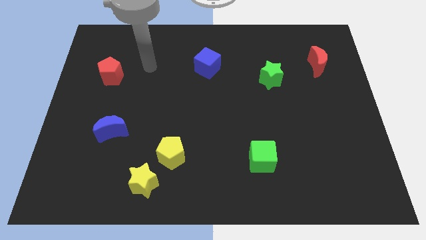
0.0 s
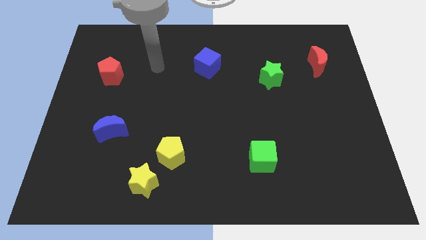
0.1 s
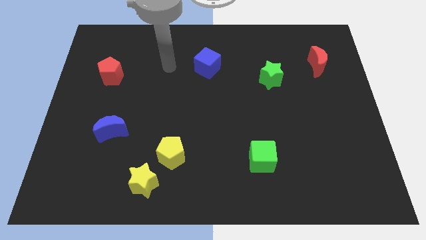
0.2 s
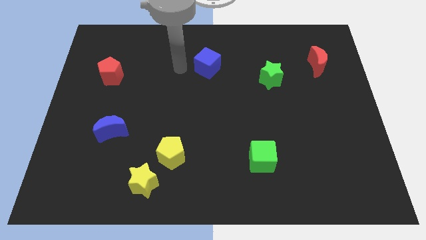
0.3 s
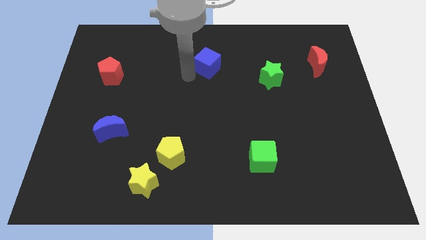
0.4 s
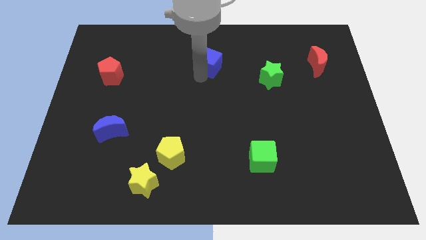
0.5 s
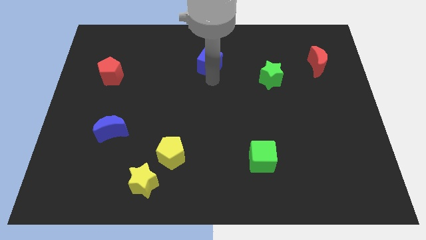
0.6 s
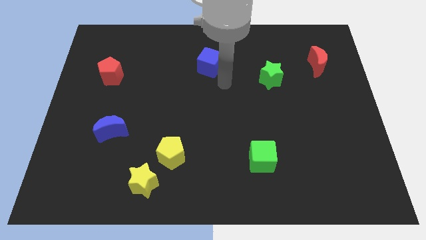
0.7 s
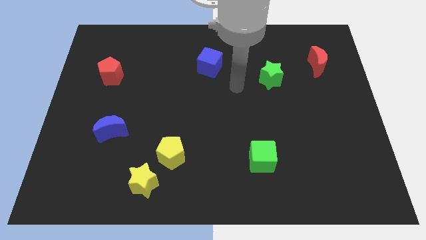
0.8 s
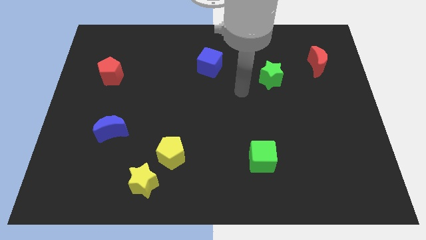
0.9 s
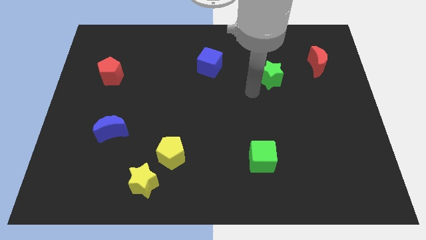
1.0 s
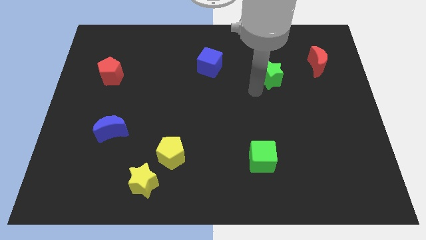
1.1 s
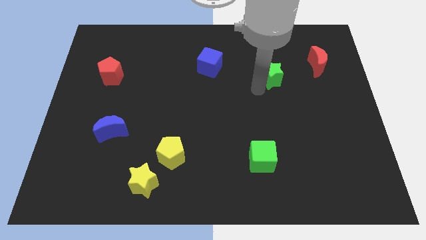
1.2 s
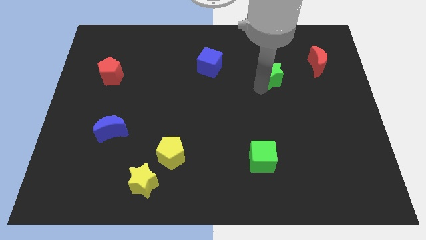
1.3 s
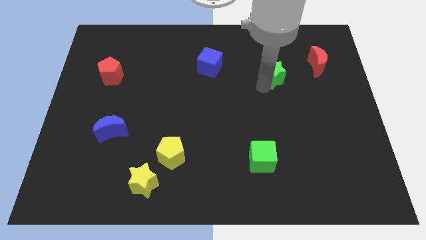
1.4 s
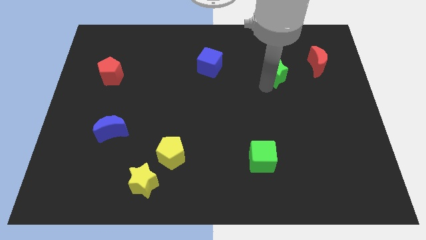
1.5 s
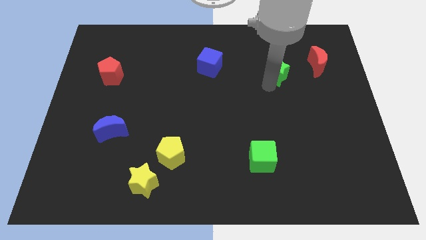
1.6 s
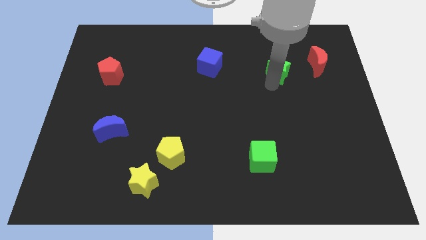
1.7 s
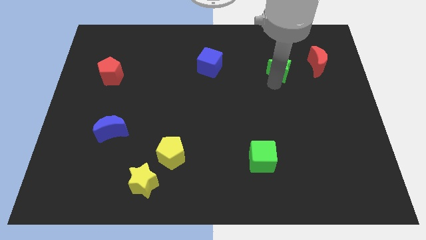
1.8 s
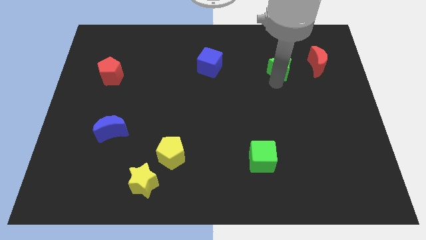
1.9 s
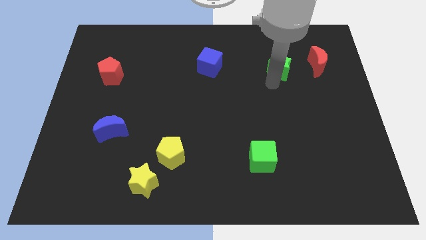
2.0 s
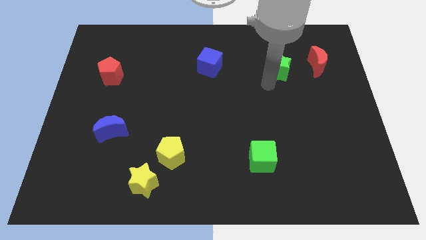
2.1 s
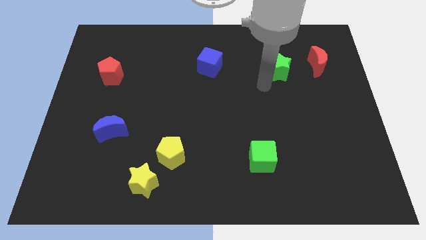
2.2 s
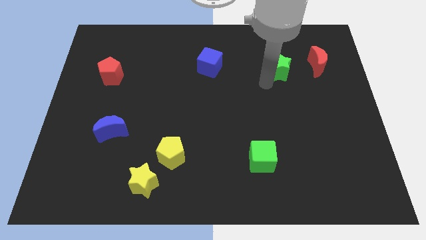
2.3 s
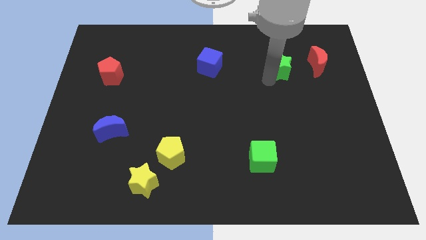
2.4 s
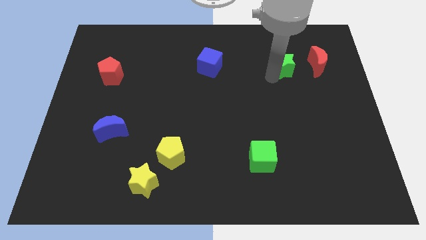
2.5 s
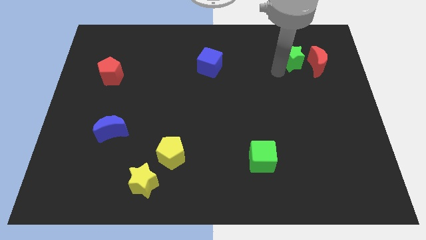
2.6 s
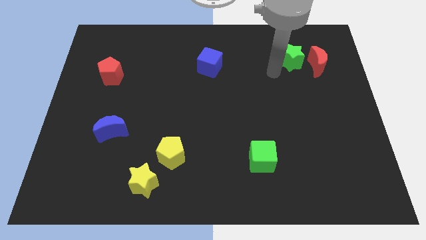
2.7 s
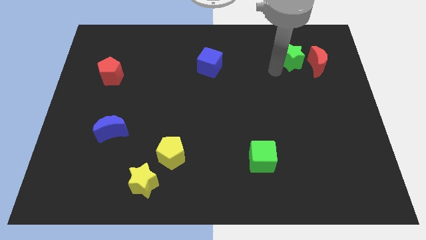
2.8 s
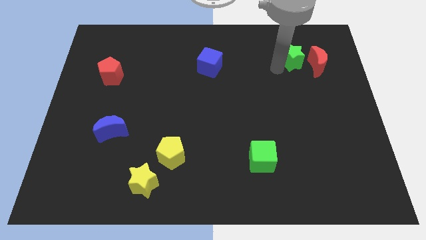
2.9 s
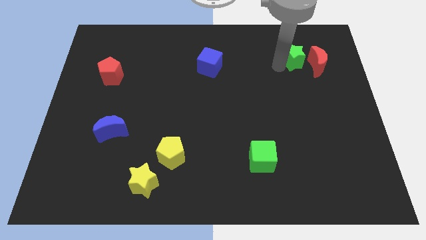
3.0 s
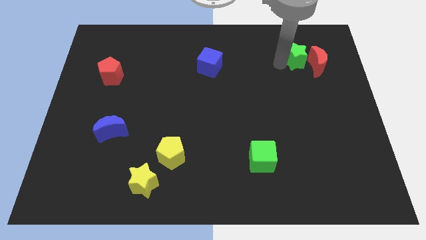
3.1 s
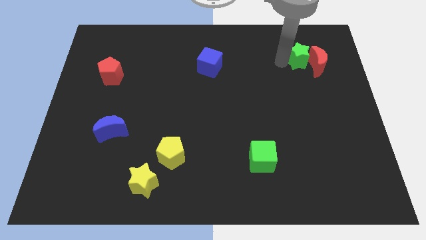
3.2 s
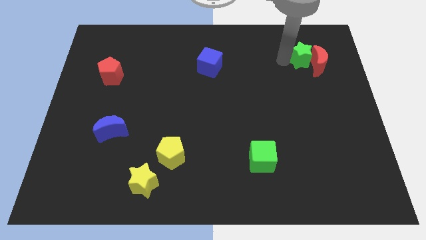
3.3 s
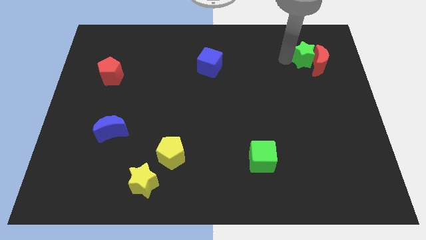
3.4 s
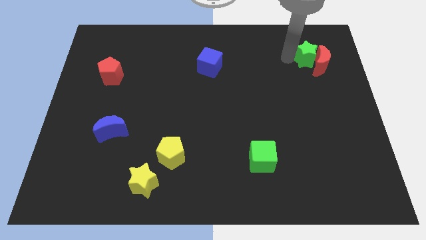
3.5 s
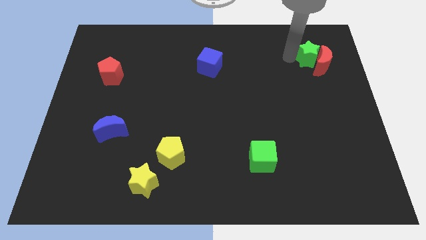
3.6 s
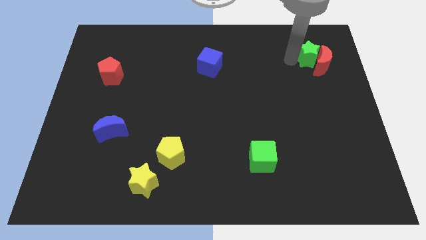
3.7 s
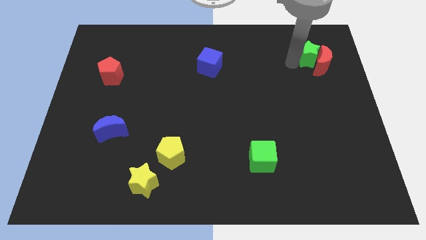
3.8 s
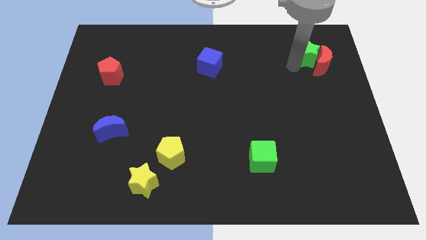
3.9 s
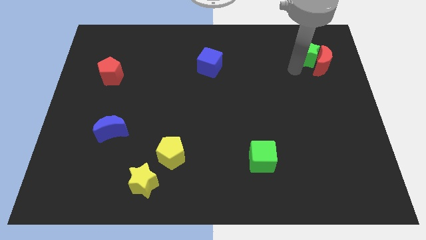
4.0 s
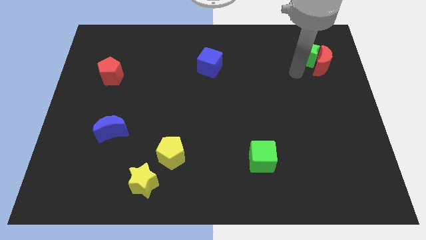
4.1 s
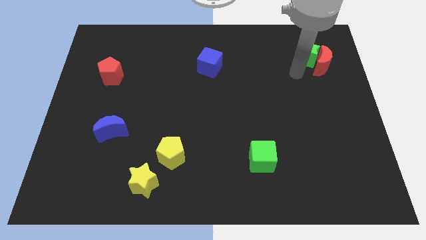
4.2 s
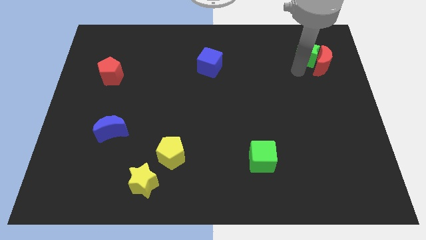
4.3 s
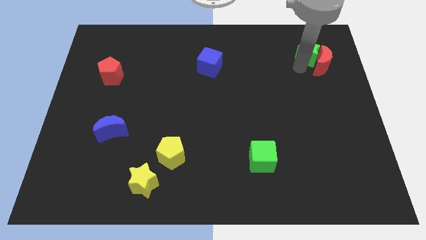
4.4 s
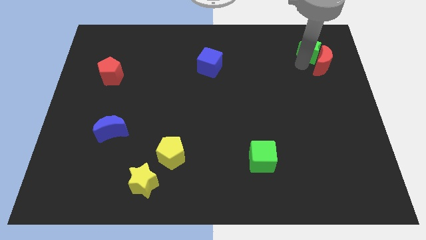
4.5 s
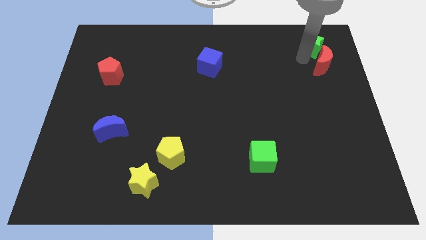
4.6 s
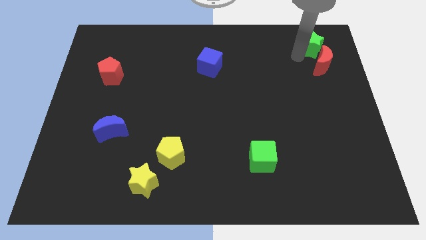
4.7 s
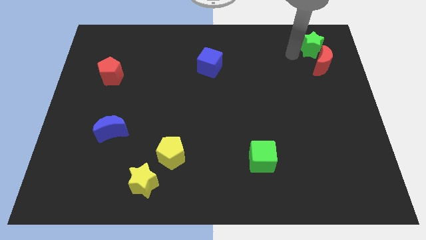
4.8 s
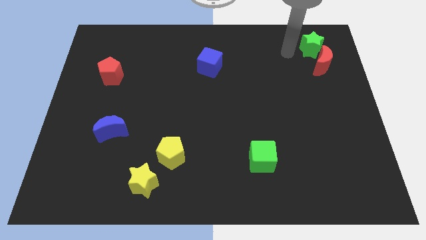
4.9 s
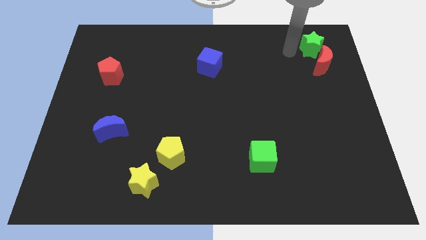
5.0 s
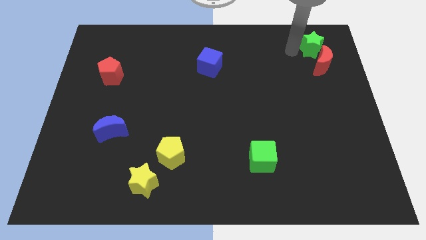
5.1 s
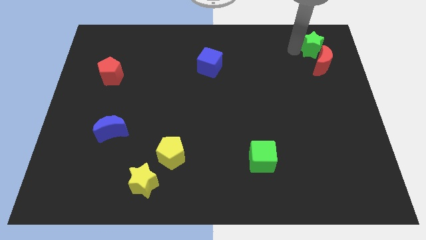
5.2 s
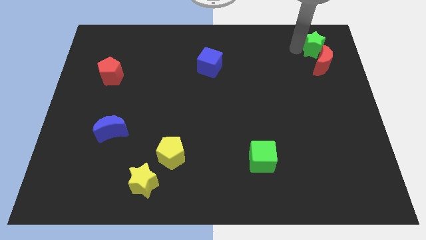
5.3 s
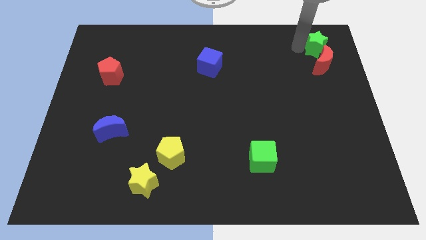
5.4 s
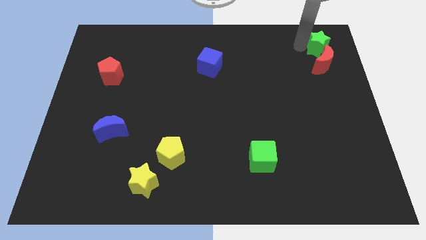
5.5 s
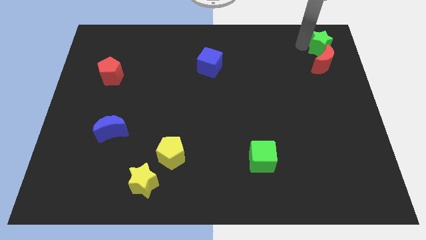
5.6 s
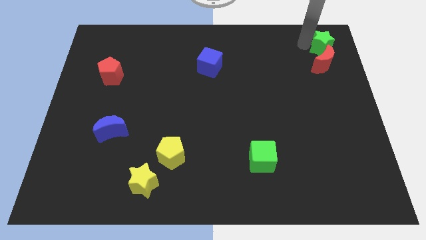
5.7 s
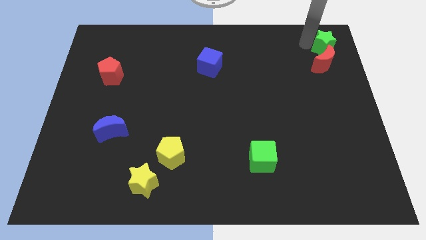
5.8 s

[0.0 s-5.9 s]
slide the green star to the top right of the board

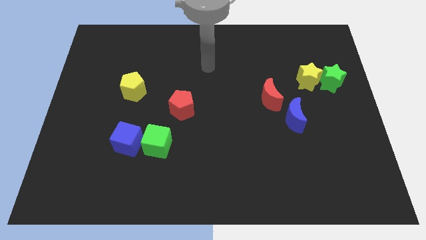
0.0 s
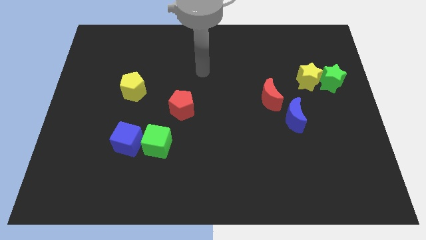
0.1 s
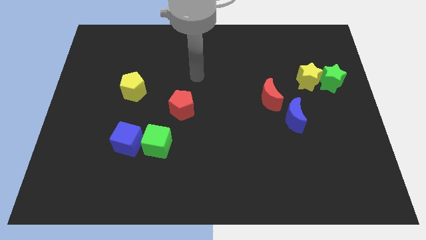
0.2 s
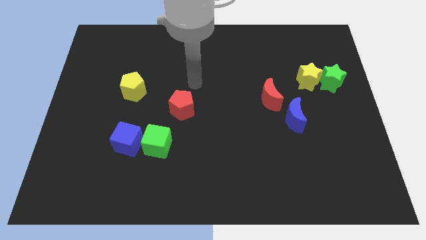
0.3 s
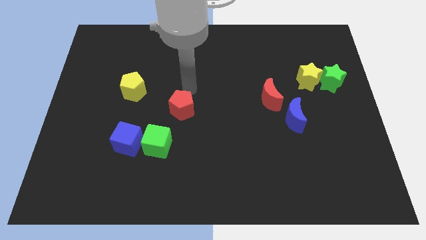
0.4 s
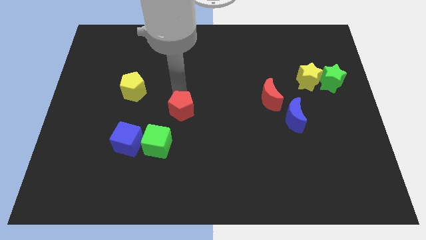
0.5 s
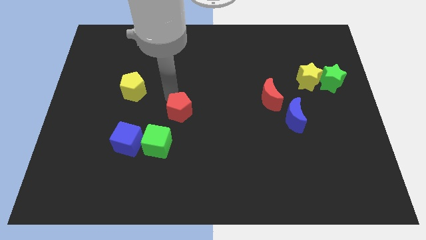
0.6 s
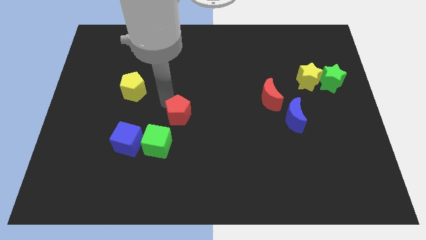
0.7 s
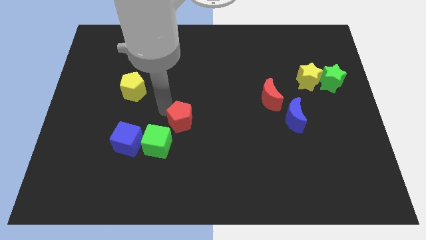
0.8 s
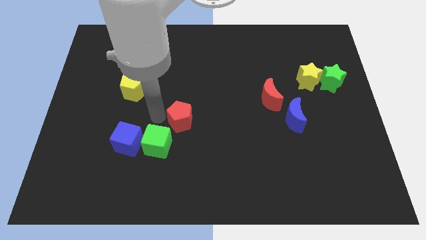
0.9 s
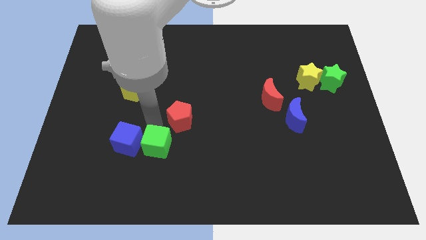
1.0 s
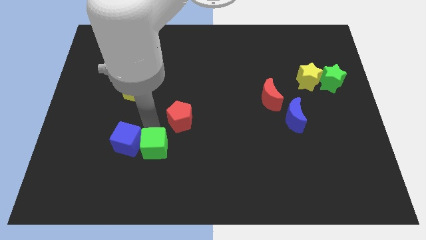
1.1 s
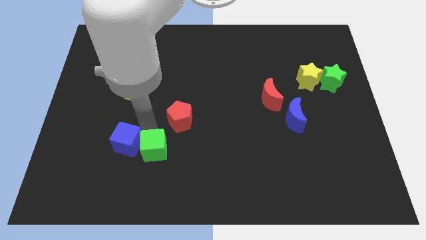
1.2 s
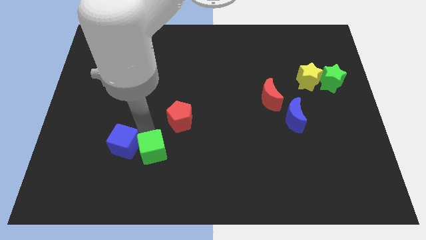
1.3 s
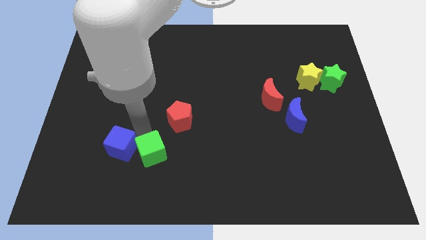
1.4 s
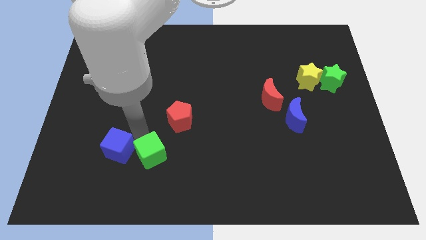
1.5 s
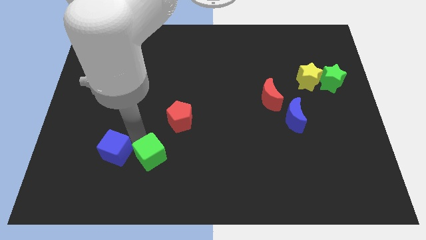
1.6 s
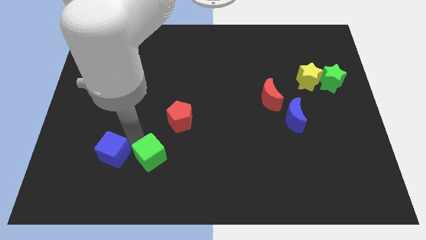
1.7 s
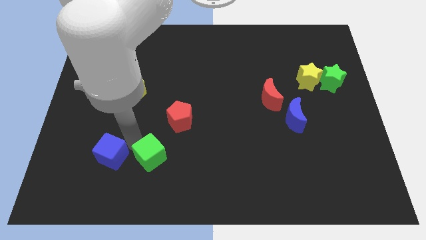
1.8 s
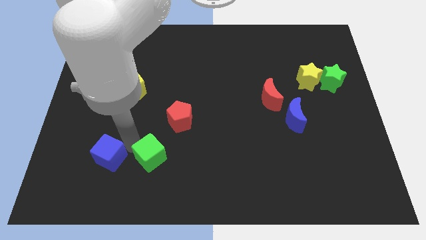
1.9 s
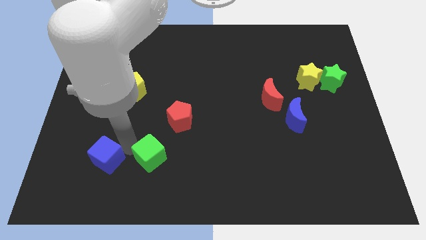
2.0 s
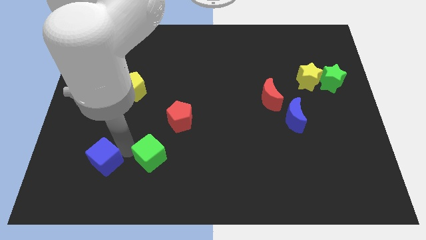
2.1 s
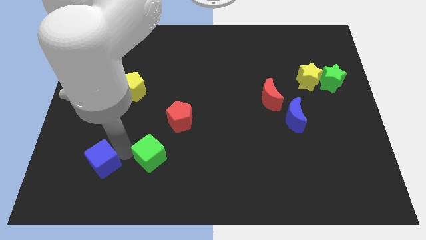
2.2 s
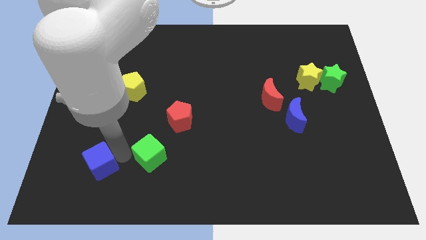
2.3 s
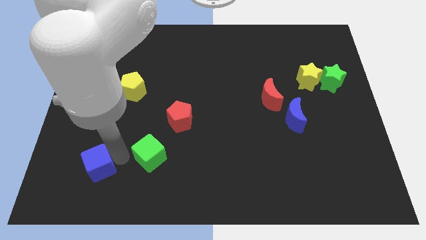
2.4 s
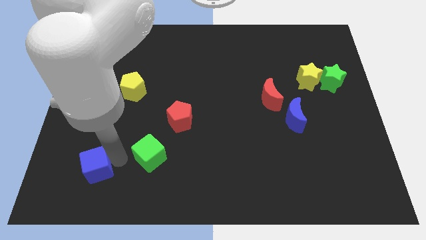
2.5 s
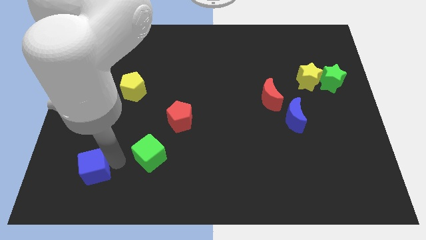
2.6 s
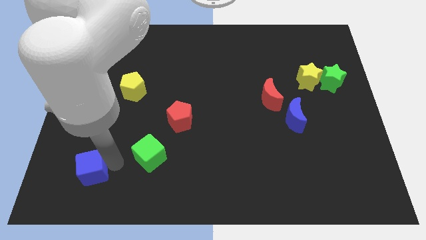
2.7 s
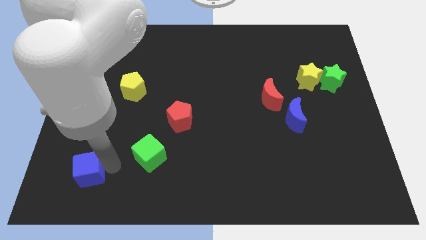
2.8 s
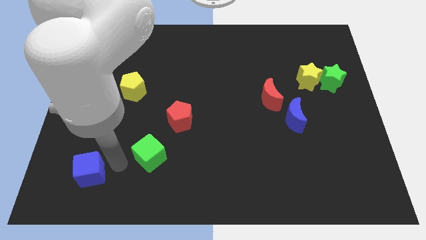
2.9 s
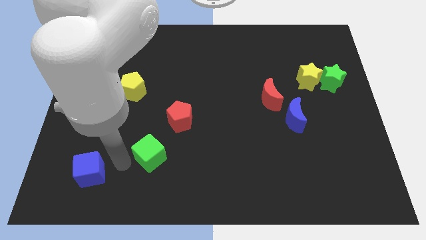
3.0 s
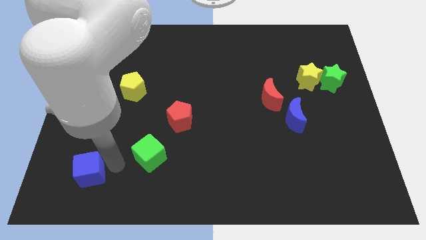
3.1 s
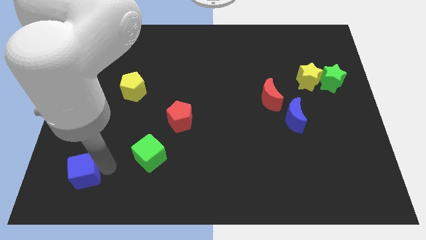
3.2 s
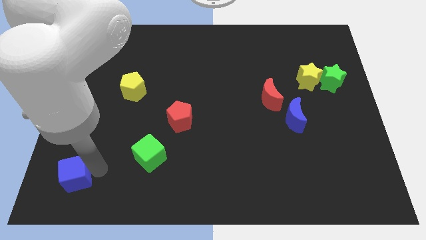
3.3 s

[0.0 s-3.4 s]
push the blue cube to the bottom left of the board
